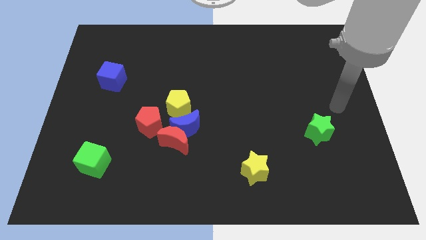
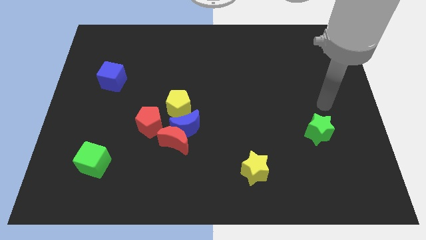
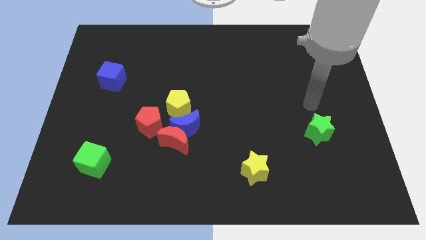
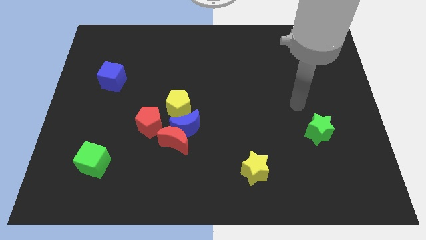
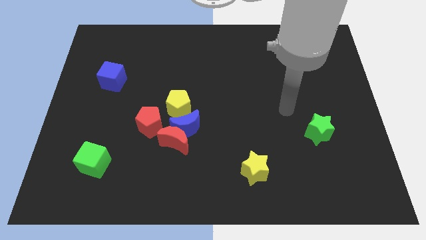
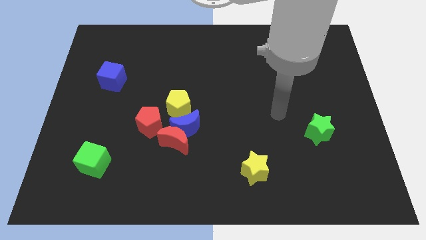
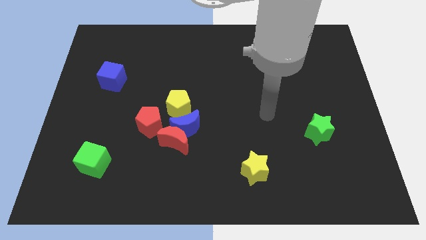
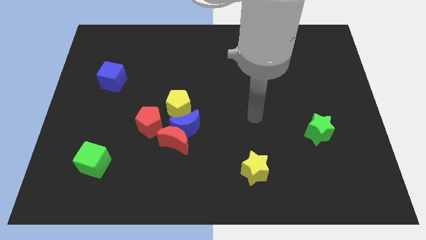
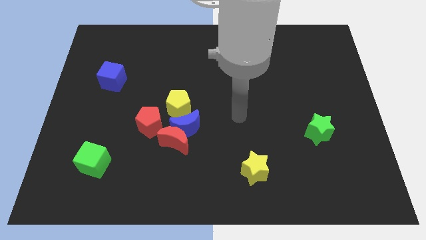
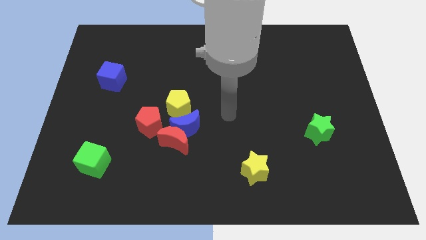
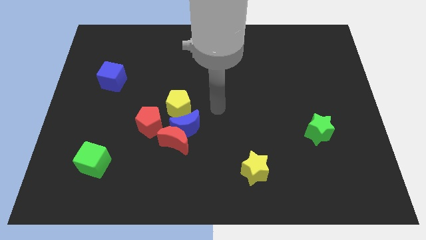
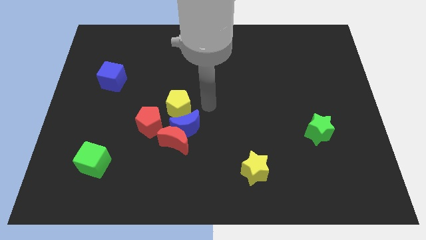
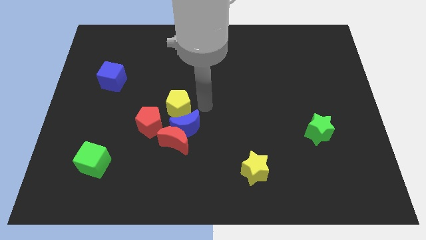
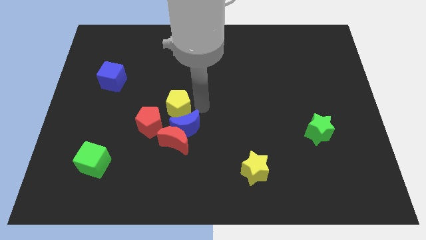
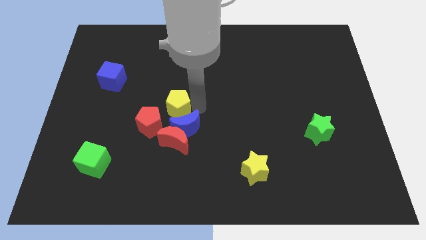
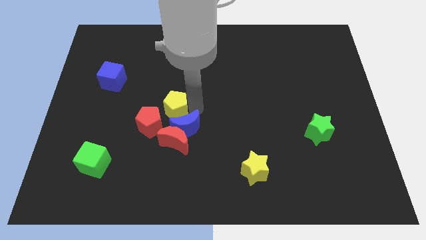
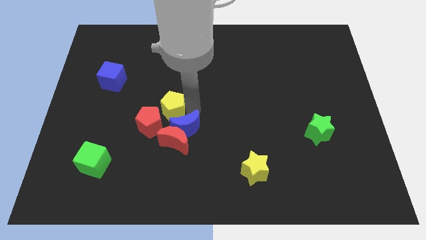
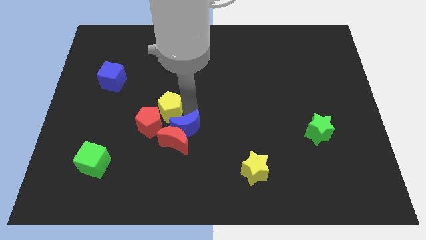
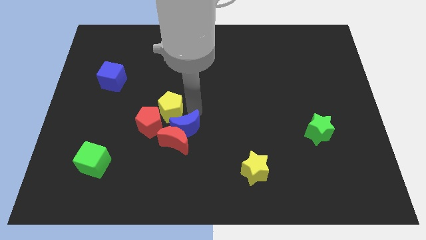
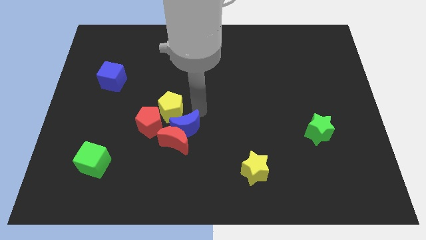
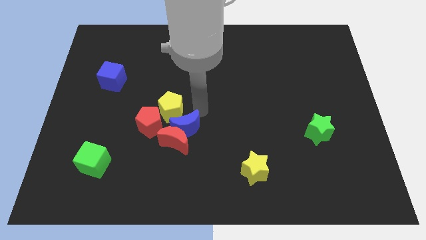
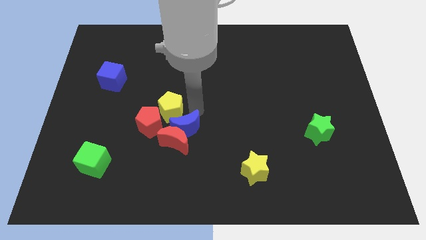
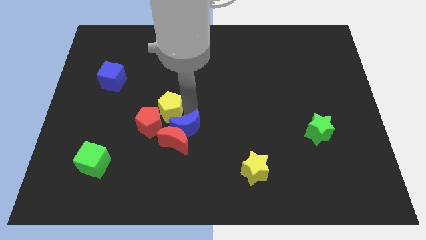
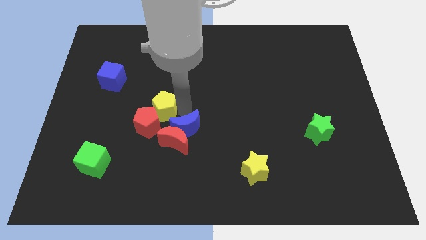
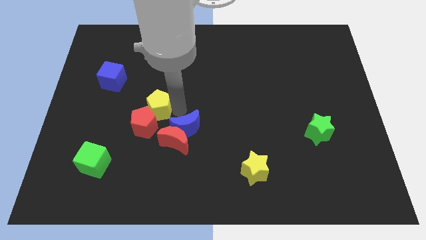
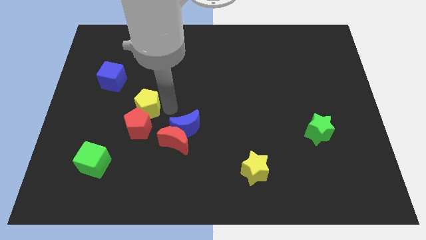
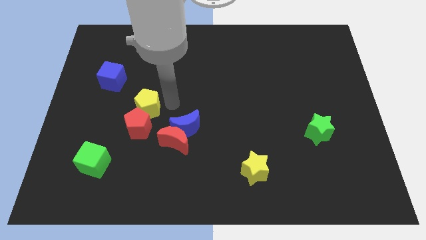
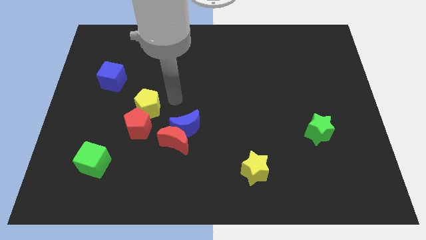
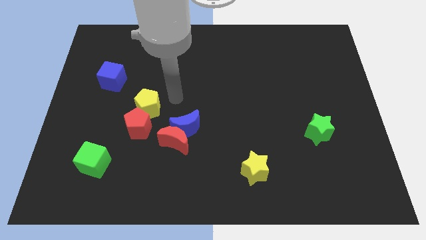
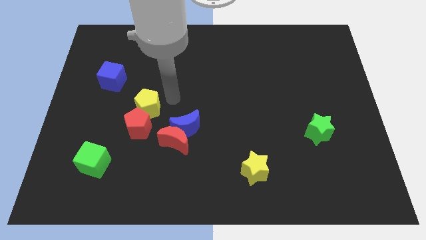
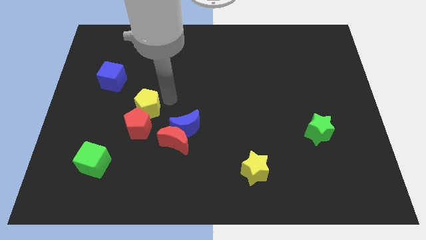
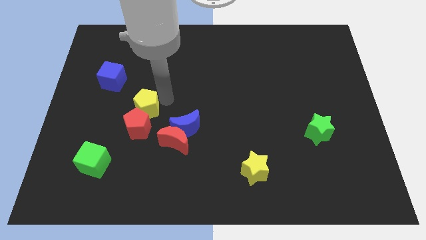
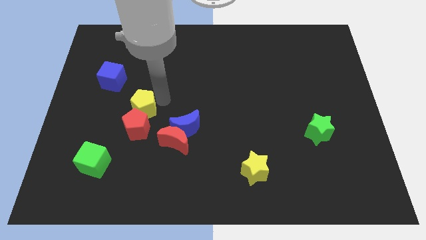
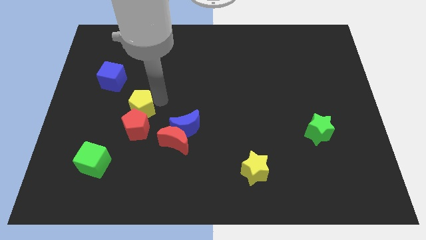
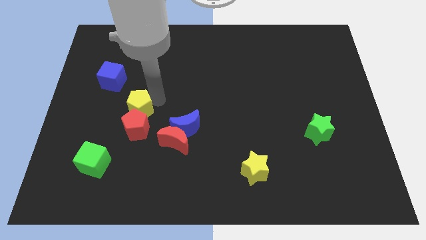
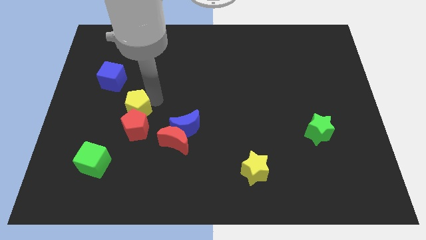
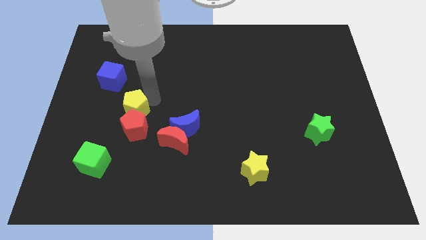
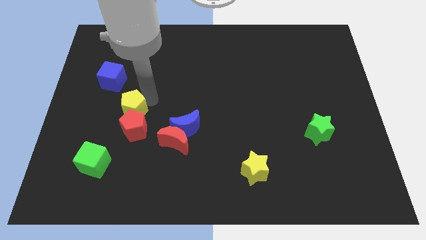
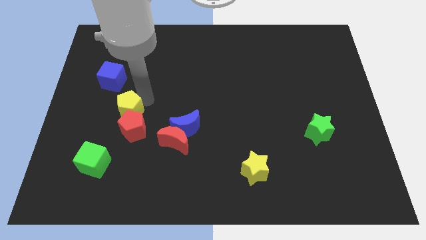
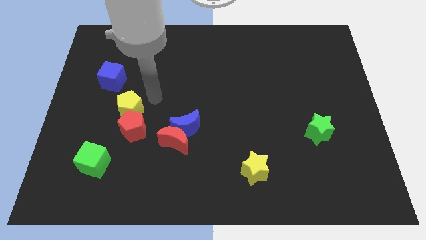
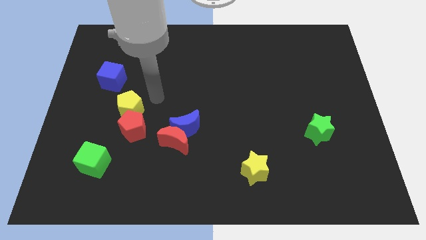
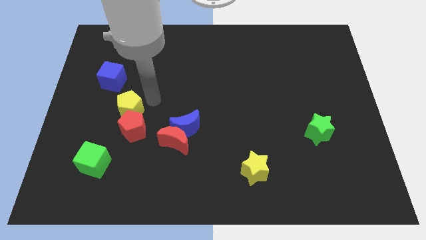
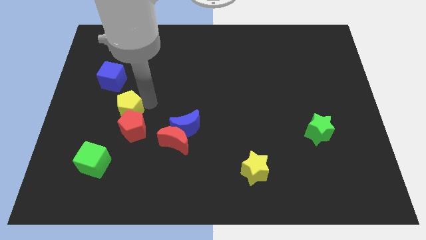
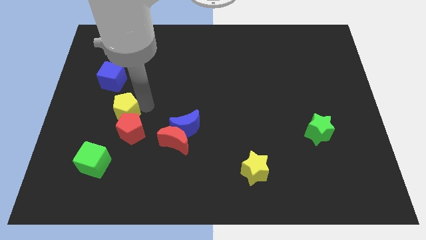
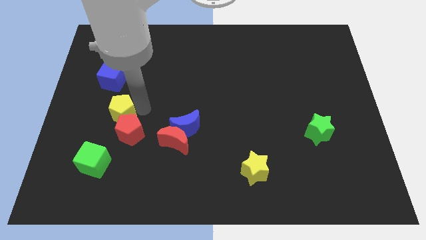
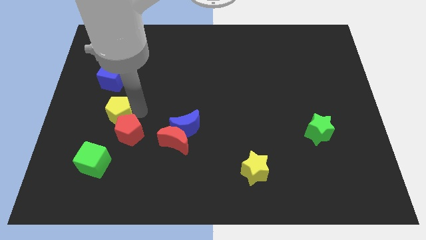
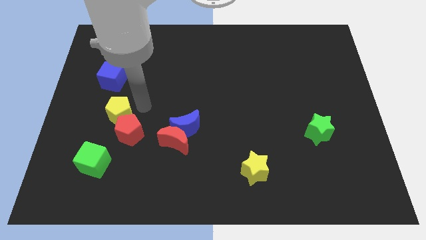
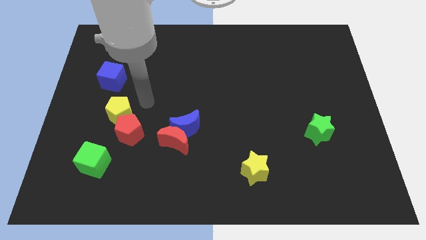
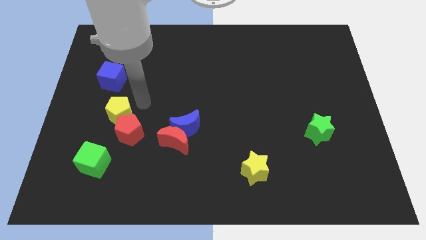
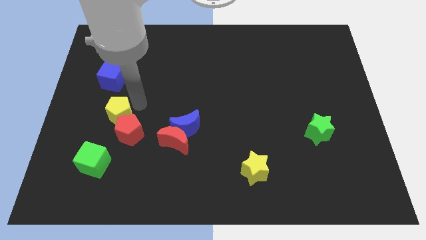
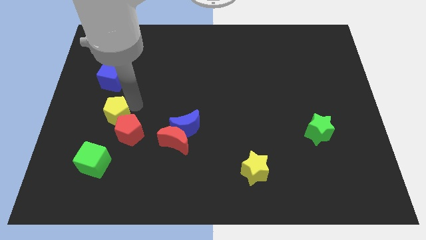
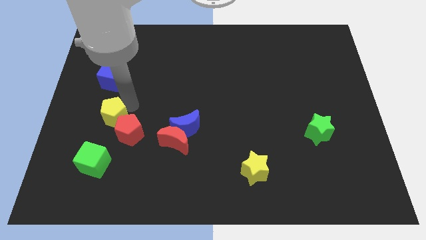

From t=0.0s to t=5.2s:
push the yellow pentagon to the left side of the red pentagon

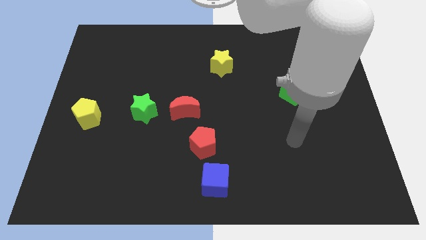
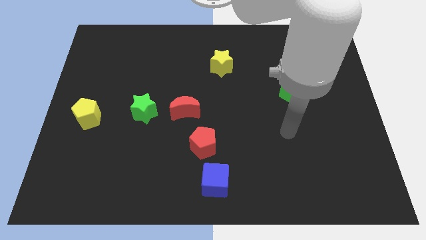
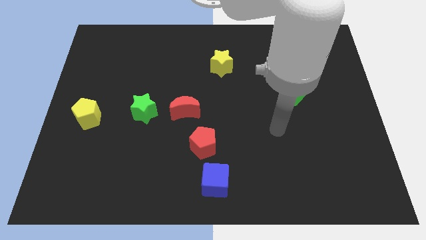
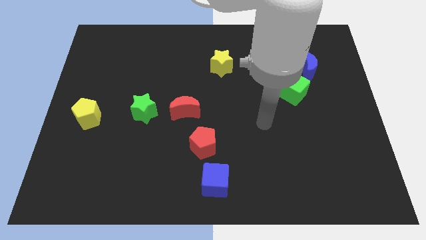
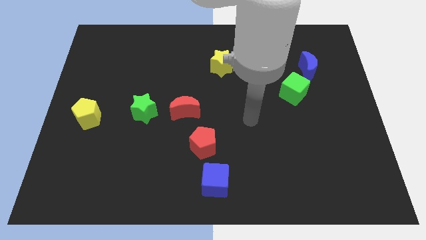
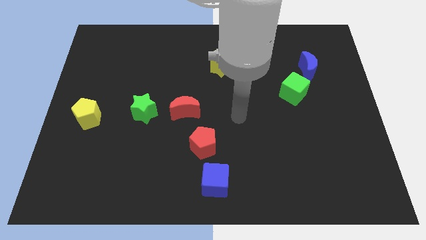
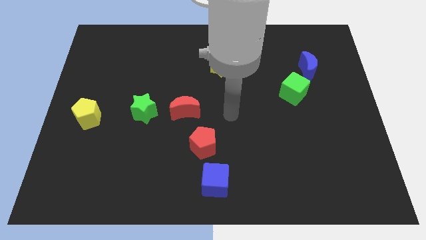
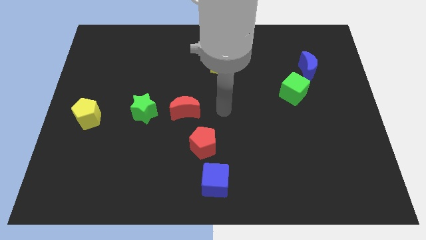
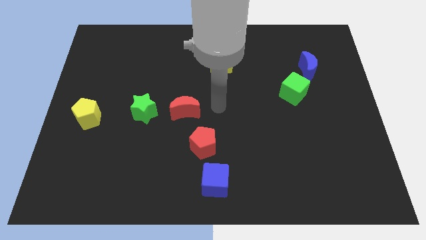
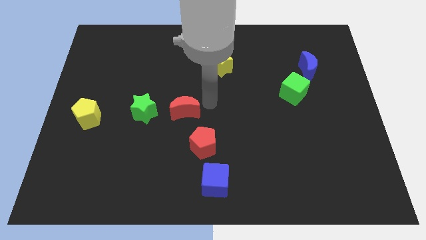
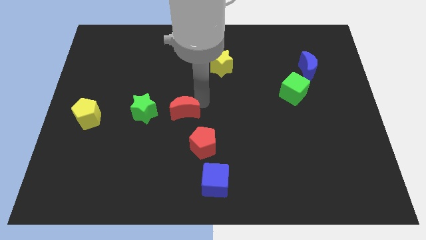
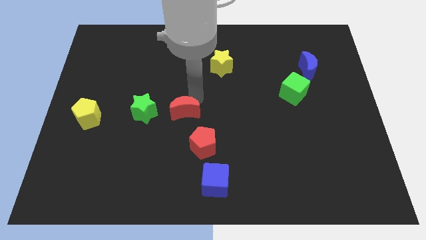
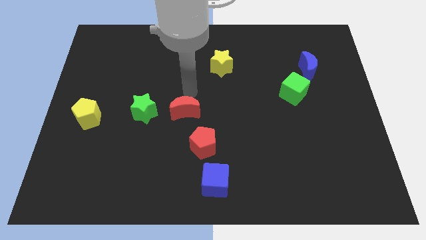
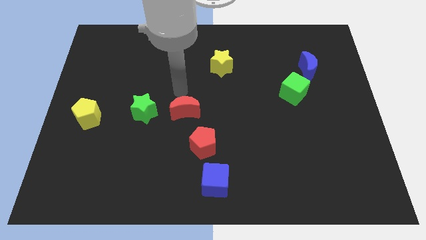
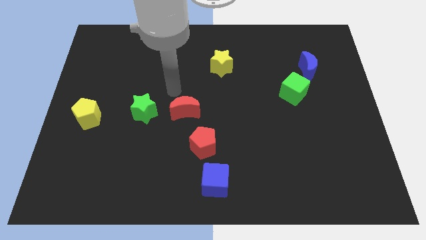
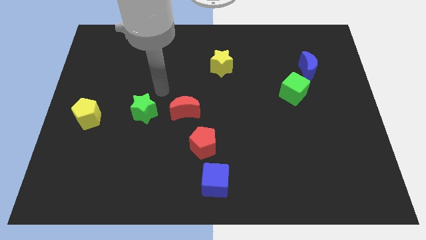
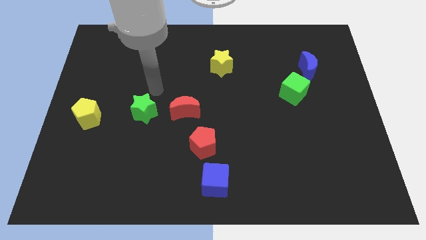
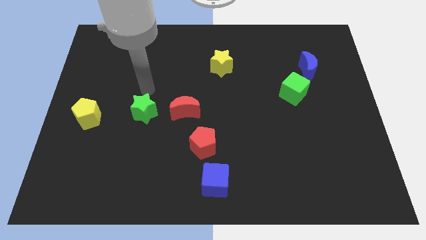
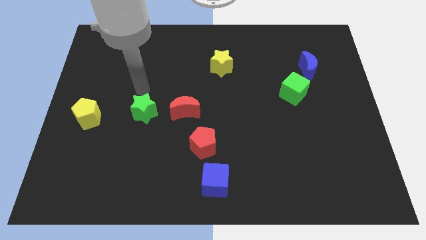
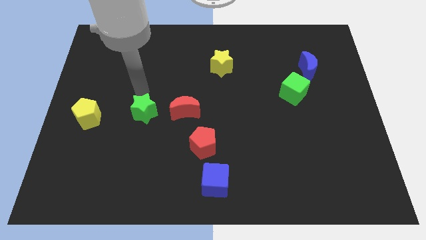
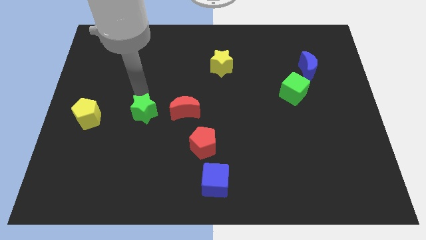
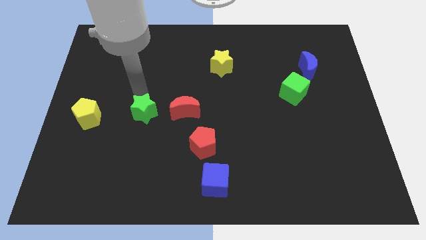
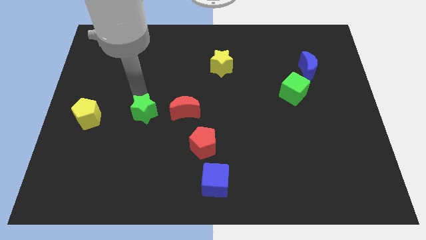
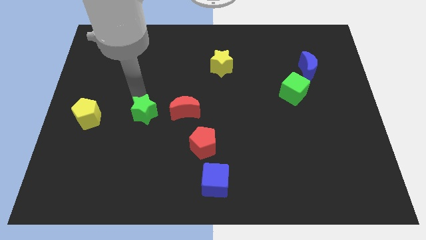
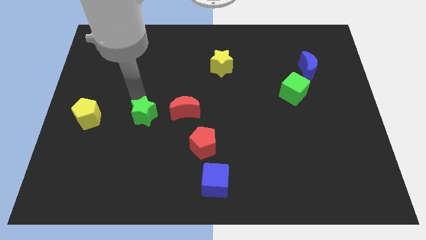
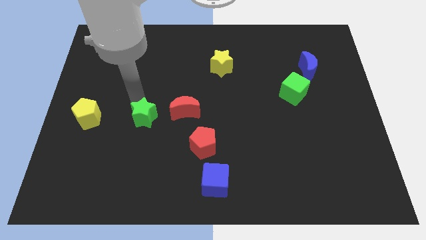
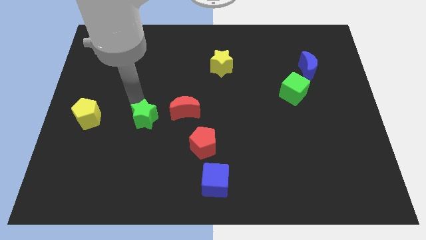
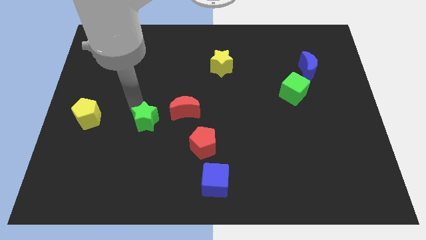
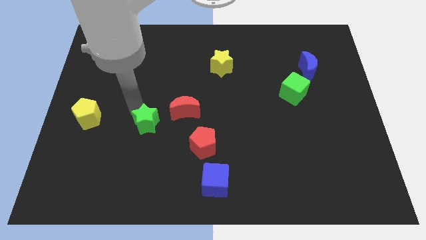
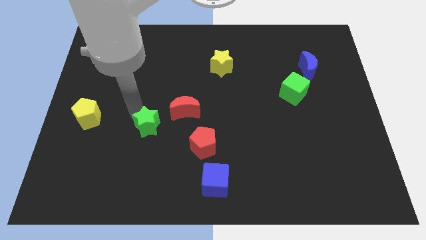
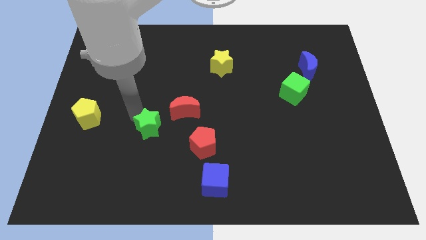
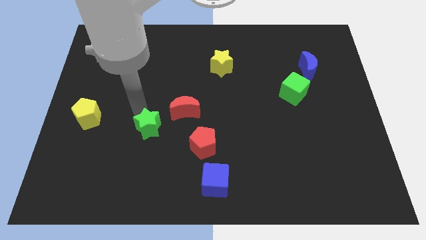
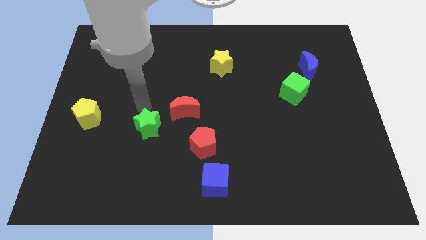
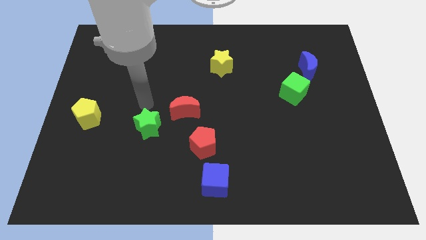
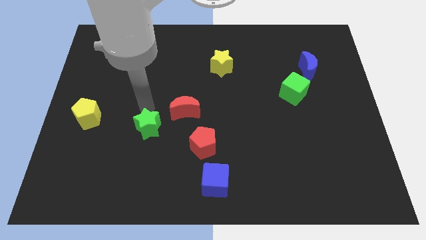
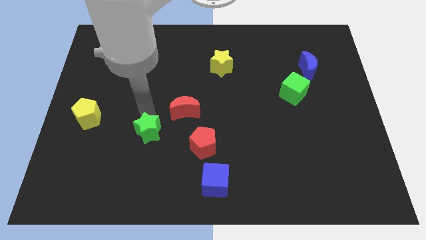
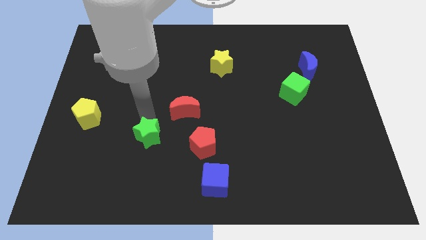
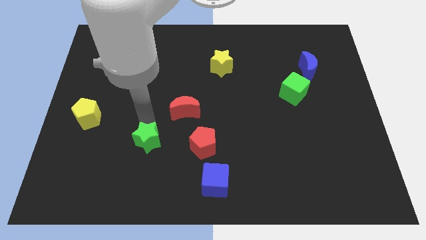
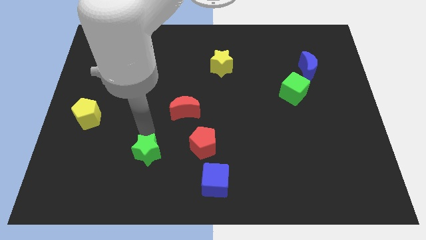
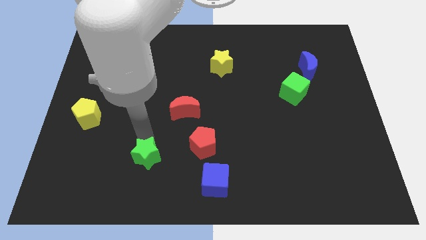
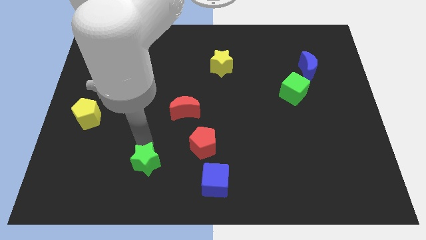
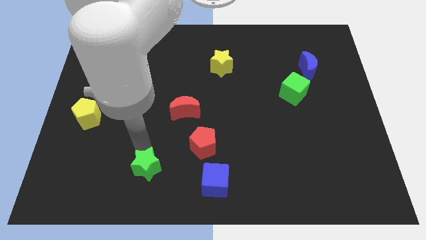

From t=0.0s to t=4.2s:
move the green star left of the blue cube
